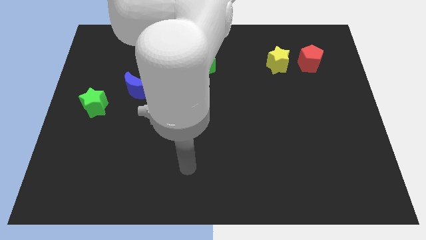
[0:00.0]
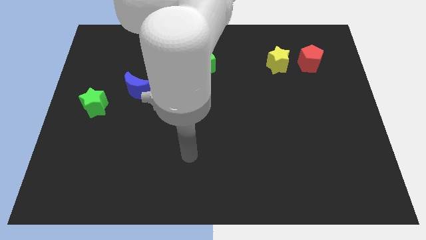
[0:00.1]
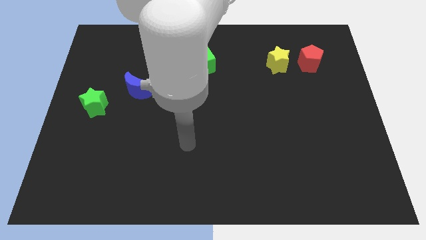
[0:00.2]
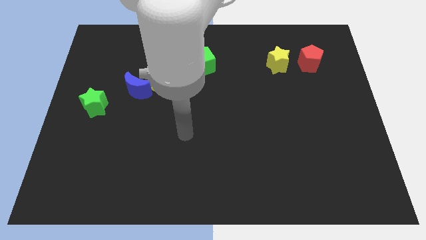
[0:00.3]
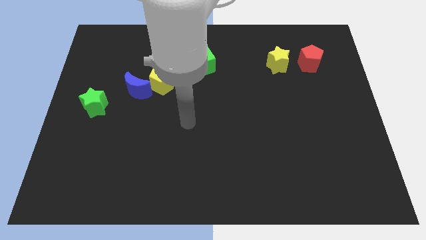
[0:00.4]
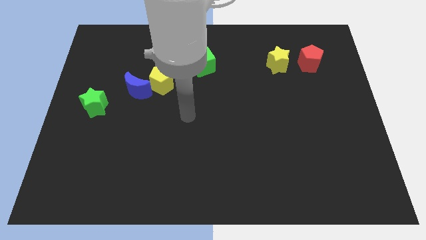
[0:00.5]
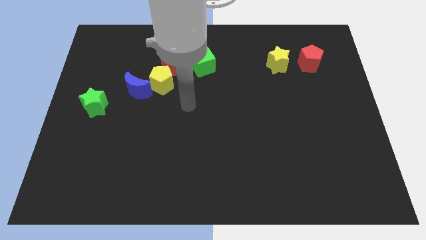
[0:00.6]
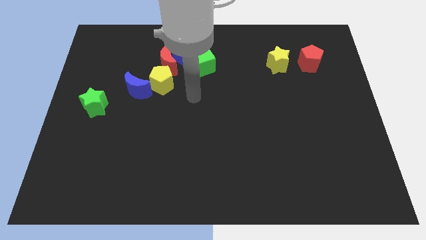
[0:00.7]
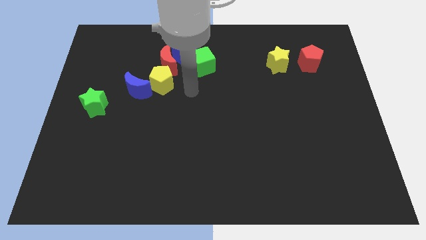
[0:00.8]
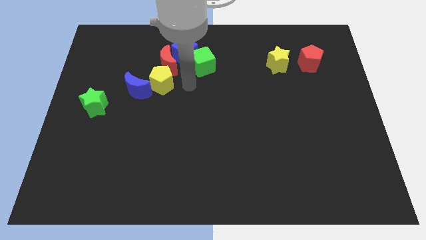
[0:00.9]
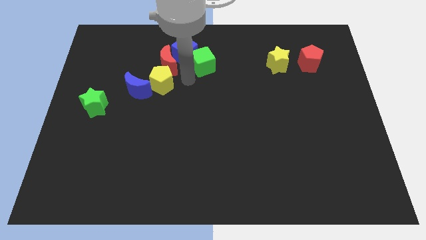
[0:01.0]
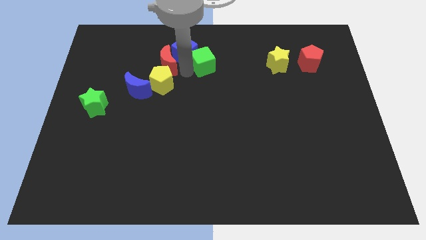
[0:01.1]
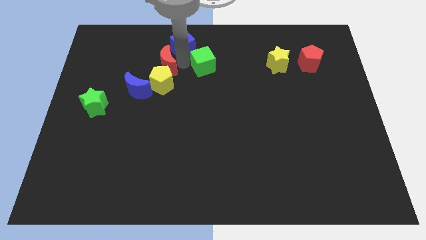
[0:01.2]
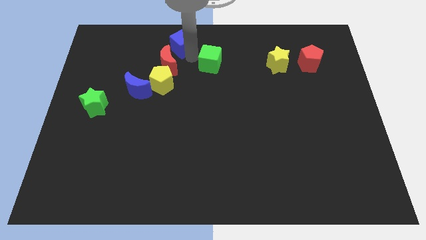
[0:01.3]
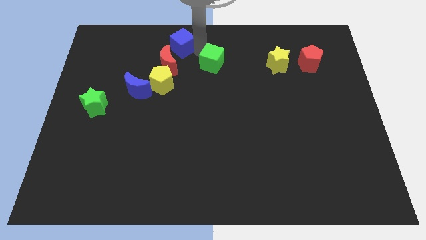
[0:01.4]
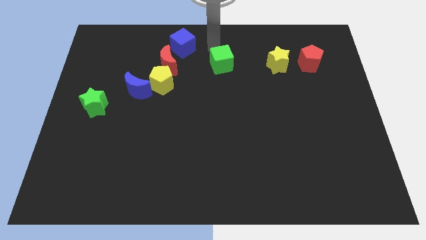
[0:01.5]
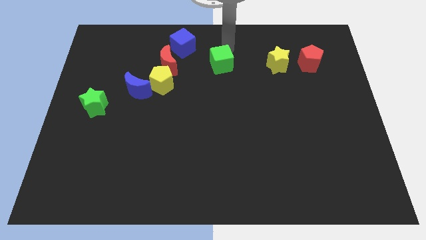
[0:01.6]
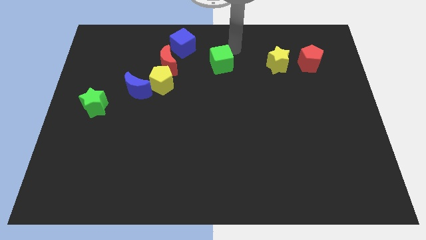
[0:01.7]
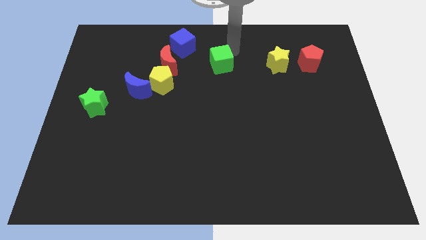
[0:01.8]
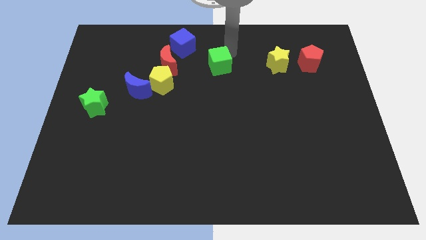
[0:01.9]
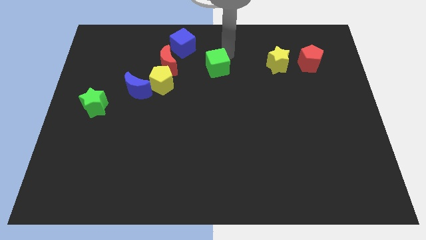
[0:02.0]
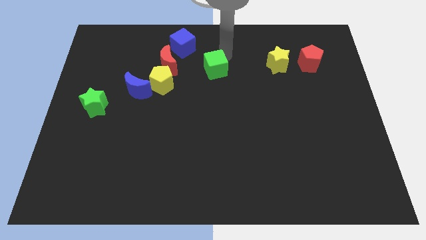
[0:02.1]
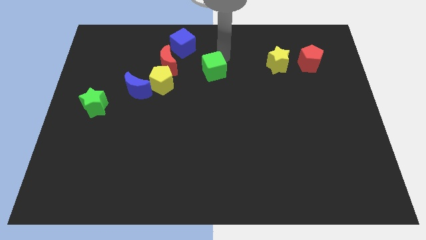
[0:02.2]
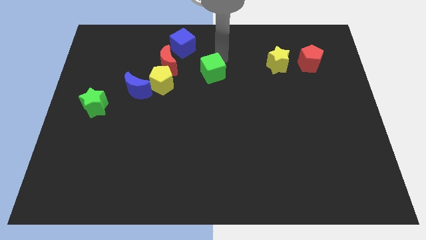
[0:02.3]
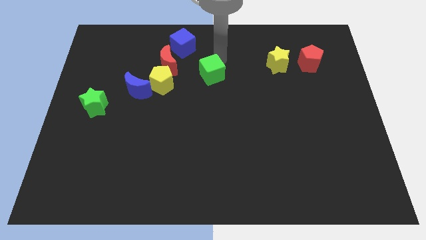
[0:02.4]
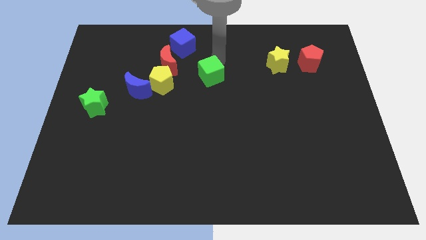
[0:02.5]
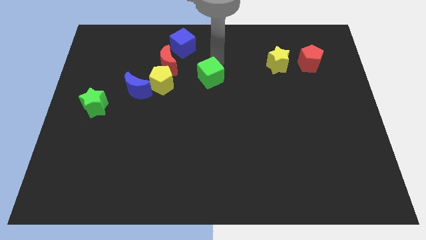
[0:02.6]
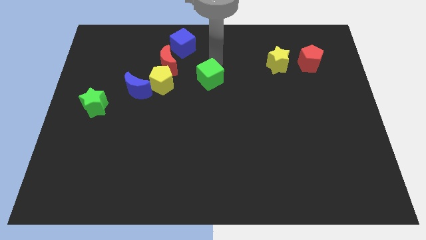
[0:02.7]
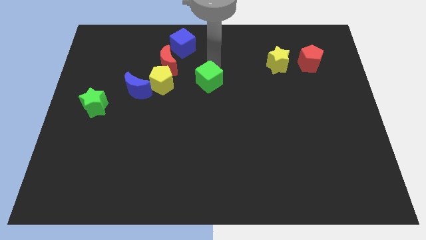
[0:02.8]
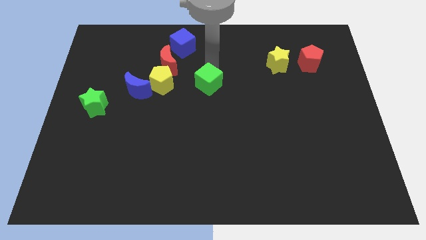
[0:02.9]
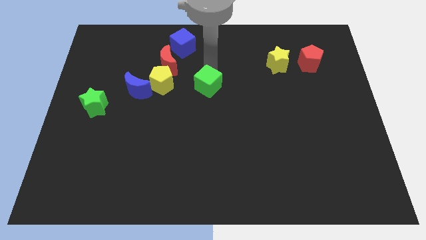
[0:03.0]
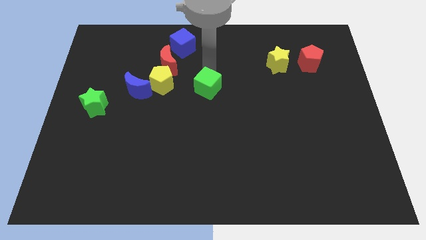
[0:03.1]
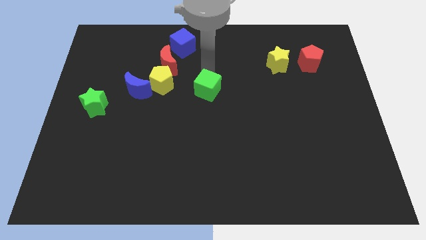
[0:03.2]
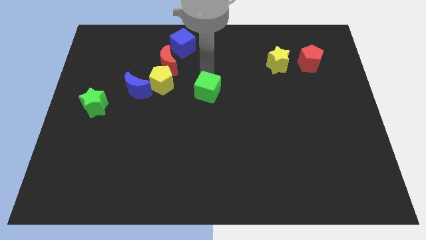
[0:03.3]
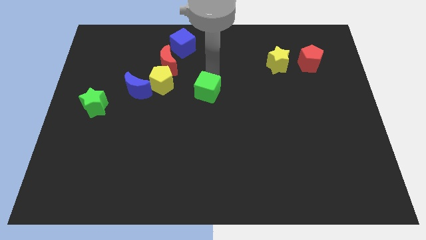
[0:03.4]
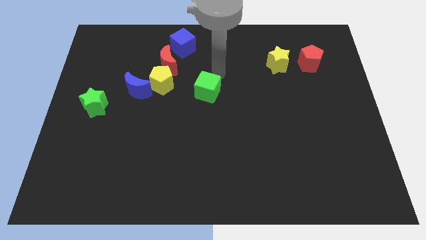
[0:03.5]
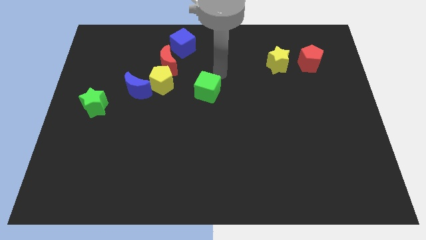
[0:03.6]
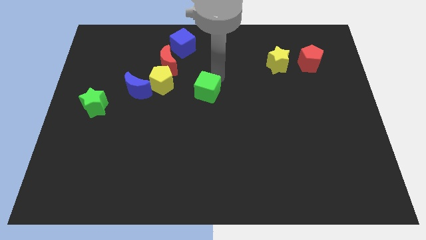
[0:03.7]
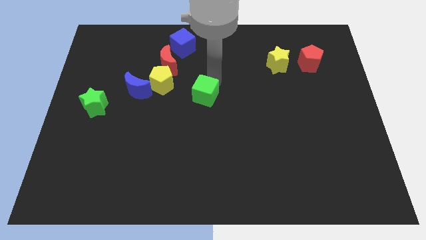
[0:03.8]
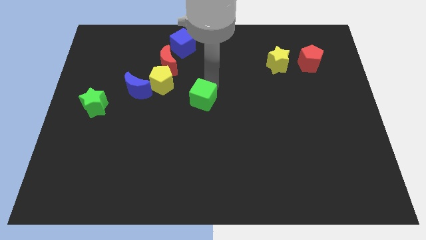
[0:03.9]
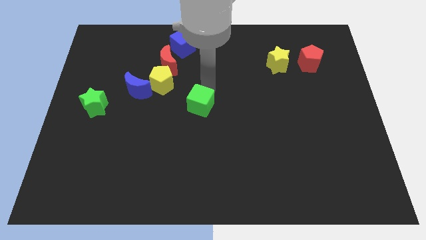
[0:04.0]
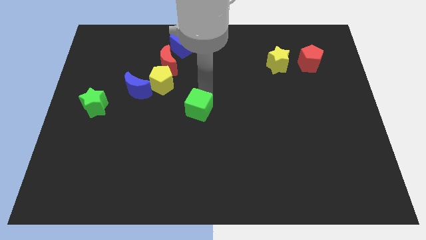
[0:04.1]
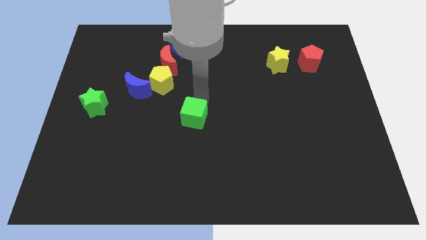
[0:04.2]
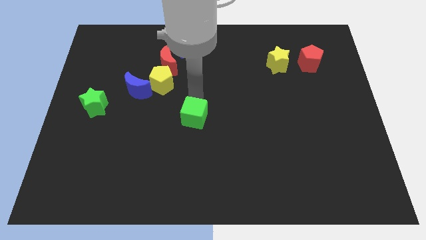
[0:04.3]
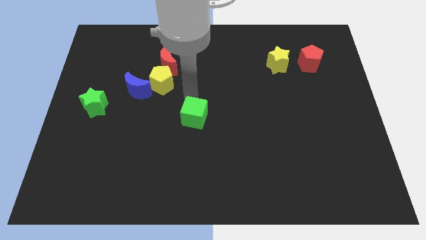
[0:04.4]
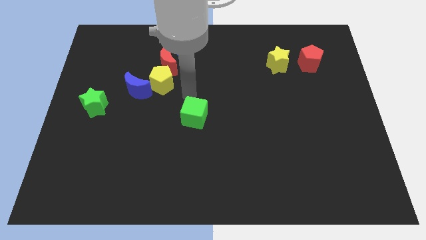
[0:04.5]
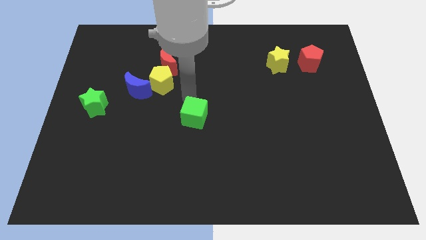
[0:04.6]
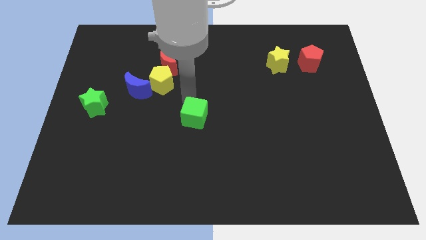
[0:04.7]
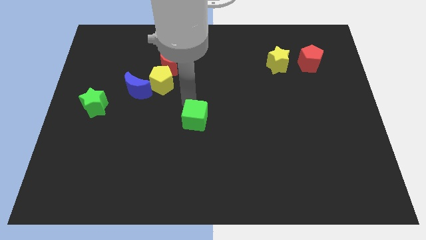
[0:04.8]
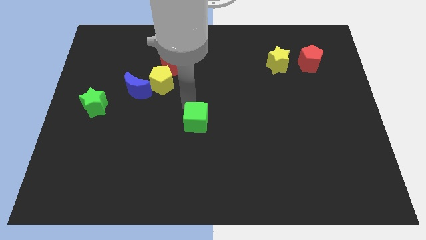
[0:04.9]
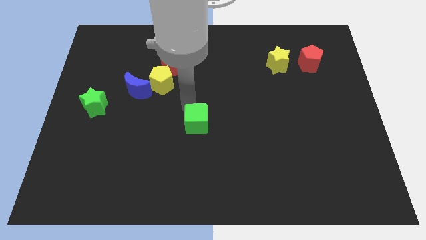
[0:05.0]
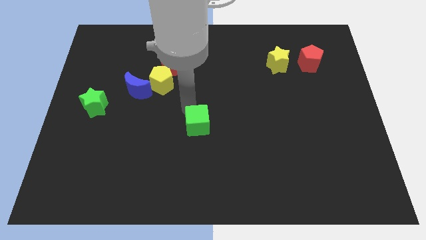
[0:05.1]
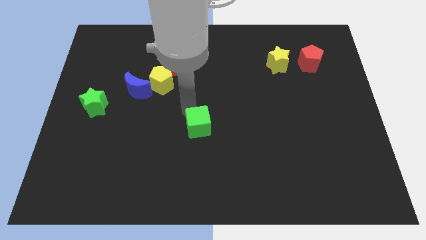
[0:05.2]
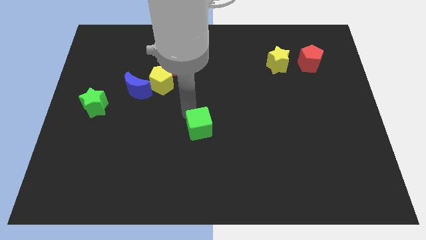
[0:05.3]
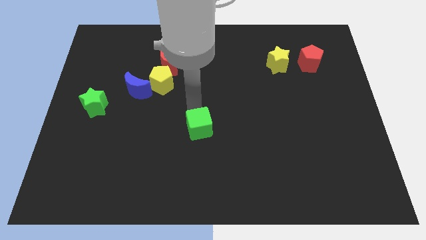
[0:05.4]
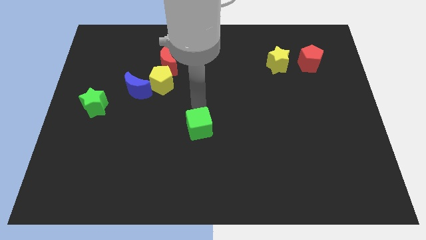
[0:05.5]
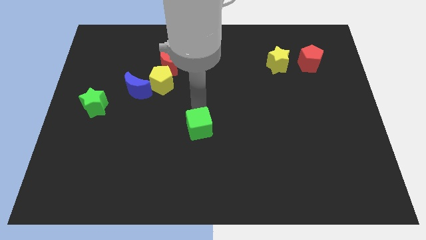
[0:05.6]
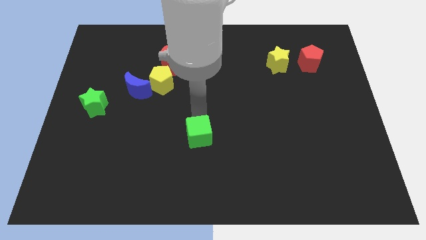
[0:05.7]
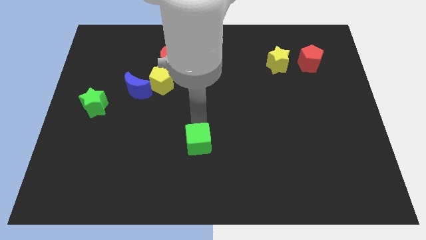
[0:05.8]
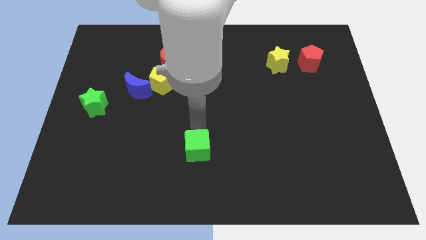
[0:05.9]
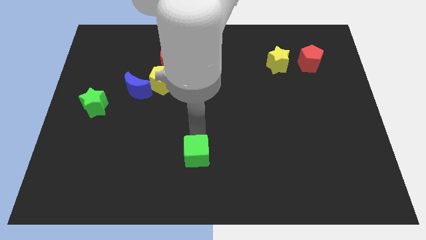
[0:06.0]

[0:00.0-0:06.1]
slide the green cube to the bottom

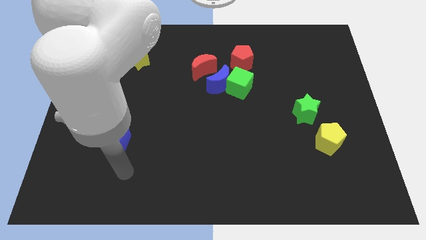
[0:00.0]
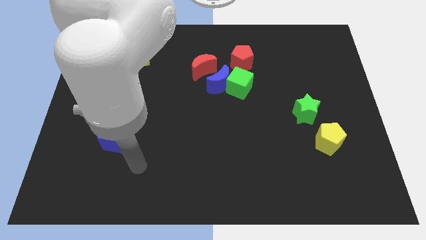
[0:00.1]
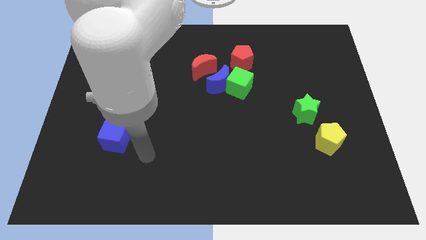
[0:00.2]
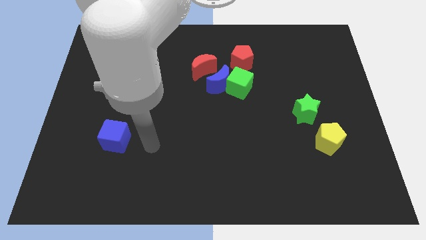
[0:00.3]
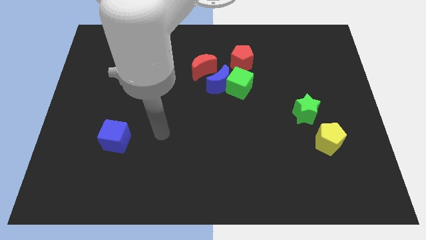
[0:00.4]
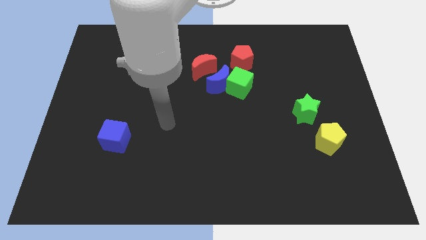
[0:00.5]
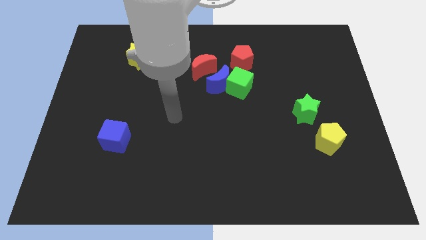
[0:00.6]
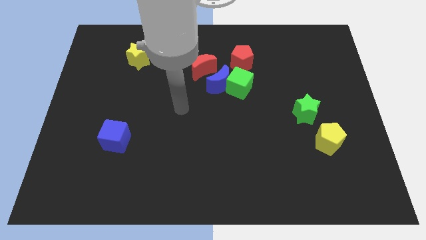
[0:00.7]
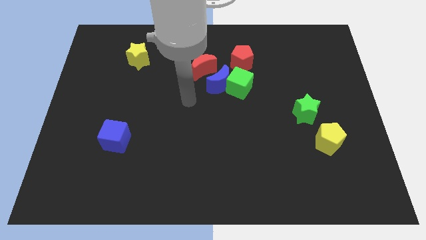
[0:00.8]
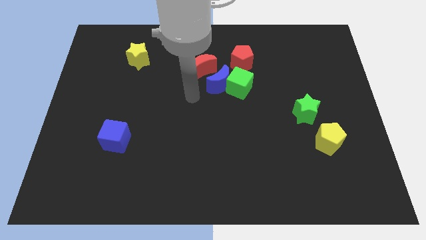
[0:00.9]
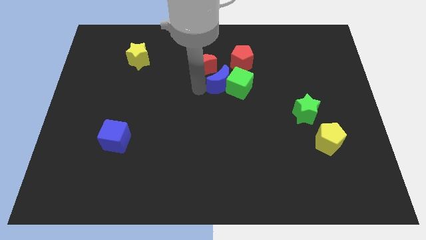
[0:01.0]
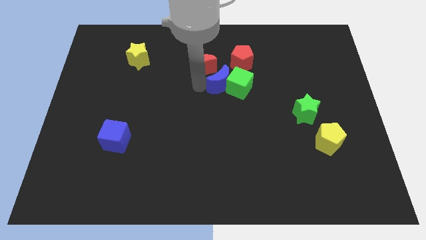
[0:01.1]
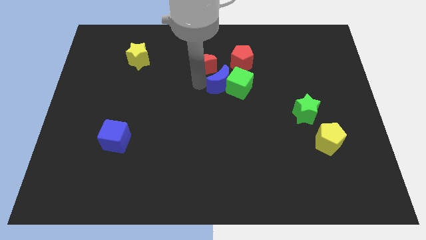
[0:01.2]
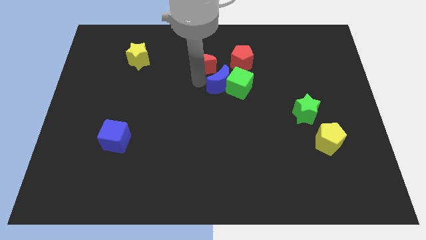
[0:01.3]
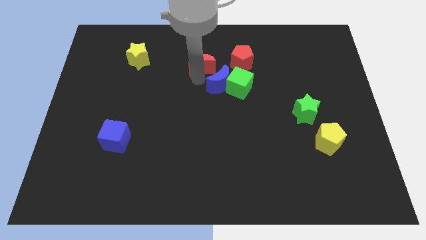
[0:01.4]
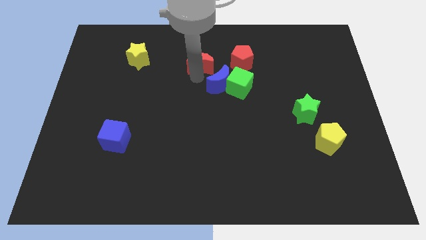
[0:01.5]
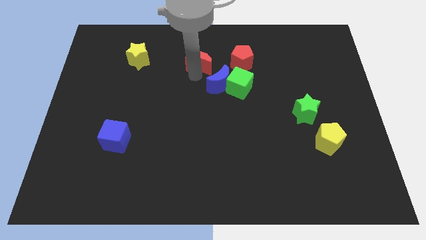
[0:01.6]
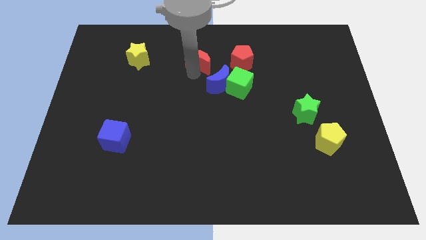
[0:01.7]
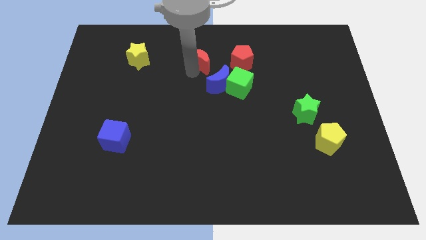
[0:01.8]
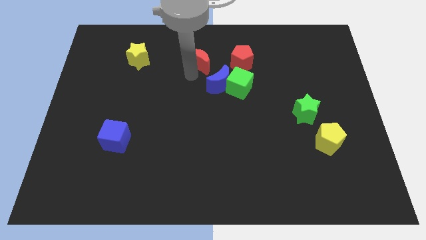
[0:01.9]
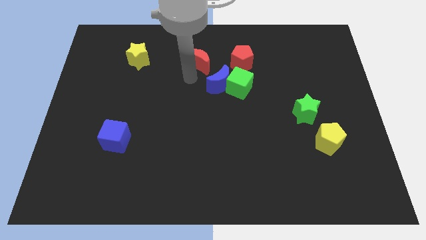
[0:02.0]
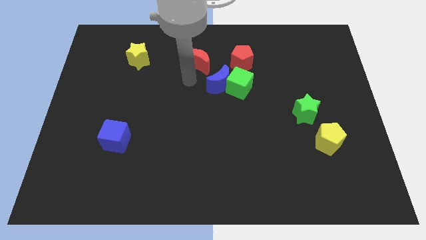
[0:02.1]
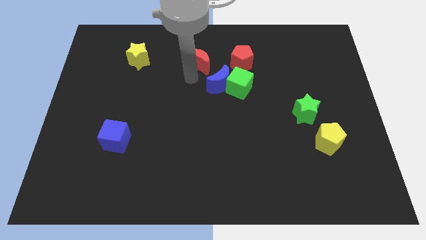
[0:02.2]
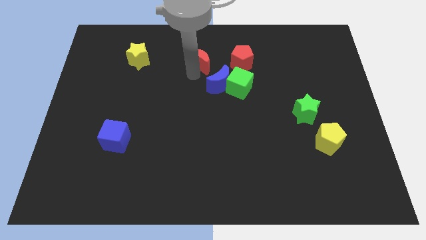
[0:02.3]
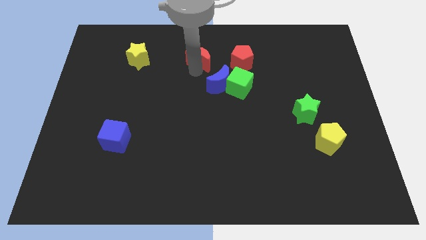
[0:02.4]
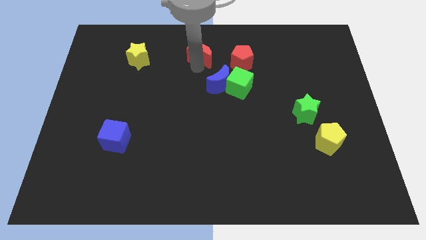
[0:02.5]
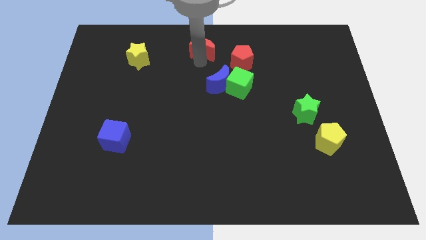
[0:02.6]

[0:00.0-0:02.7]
put the red moon to the top side
